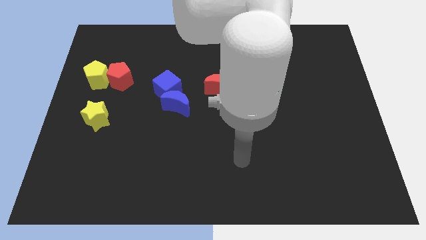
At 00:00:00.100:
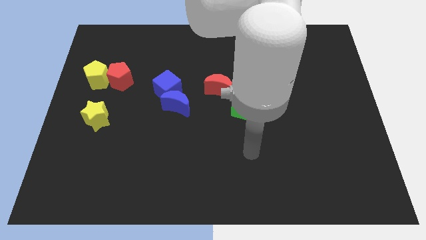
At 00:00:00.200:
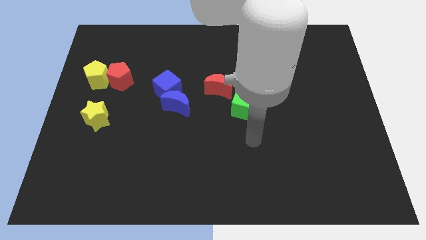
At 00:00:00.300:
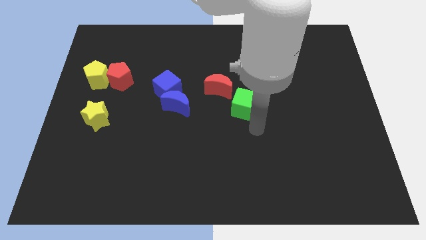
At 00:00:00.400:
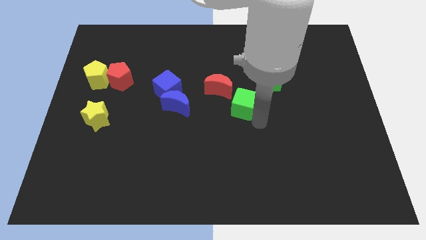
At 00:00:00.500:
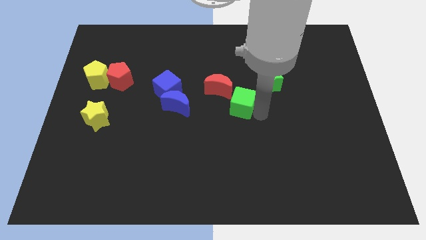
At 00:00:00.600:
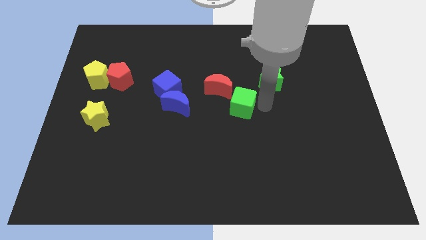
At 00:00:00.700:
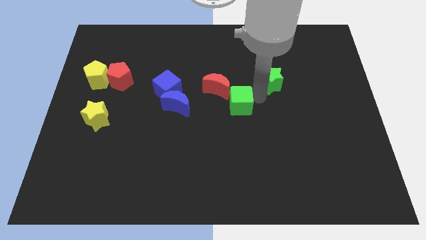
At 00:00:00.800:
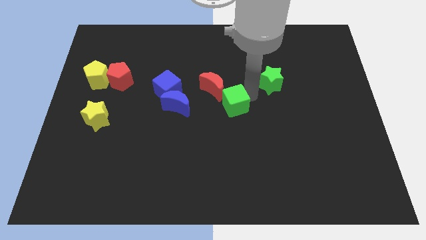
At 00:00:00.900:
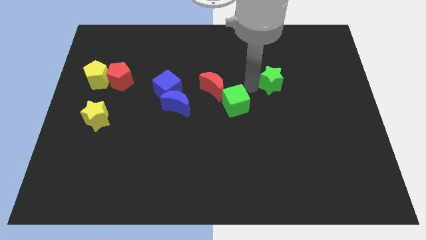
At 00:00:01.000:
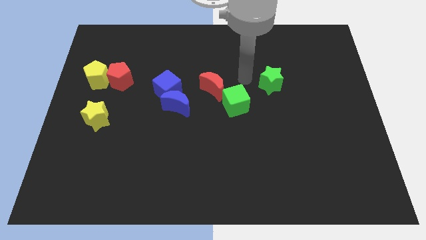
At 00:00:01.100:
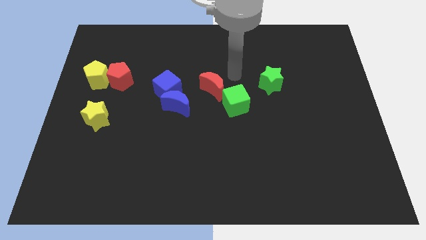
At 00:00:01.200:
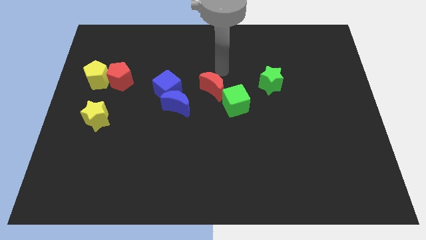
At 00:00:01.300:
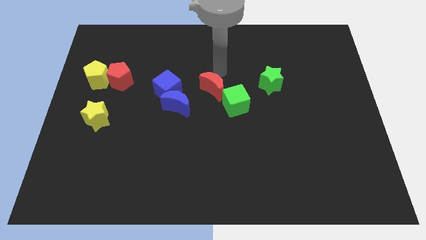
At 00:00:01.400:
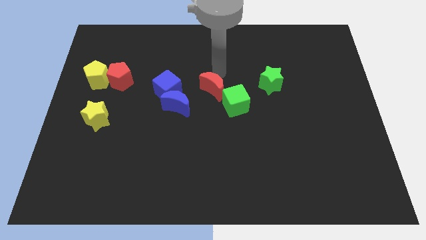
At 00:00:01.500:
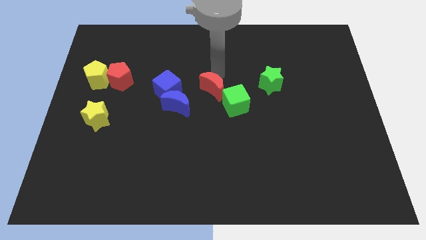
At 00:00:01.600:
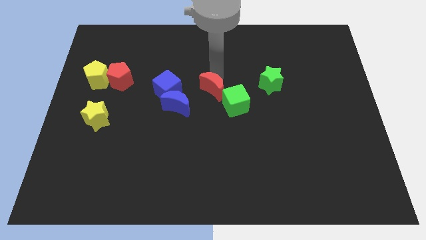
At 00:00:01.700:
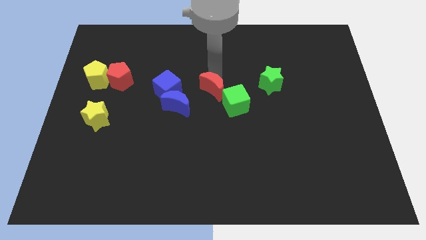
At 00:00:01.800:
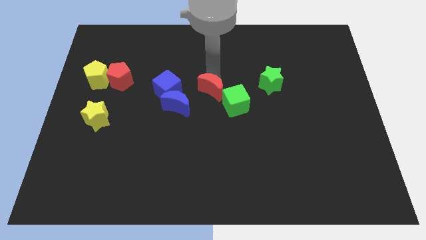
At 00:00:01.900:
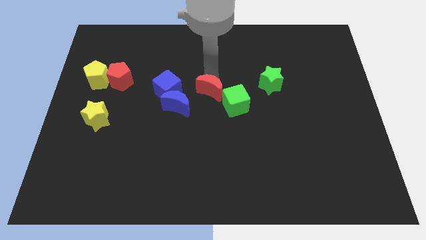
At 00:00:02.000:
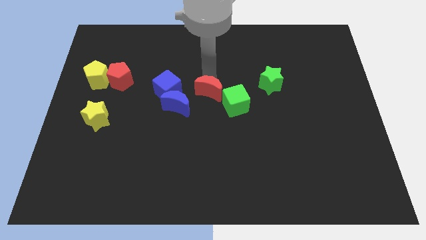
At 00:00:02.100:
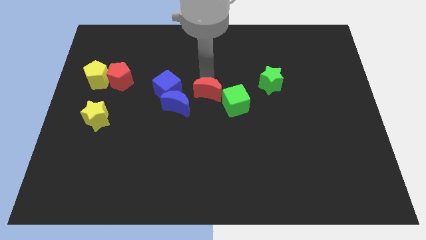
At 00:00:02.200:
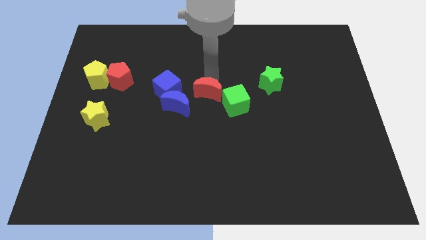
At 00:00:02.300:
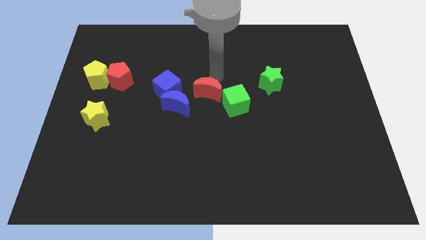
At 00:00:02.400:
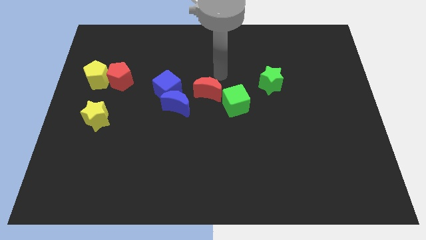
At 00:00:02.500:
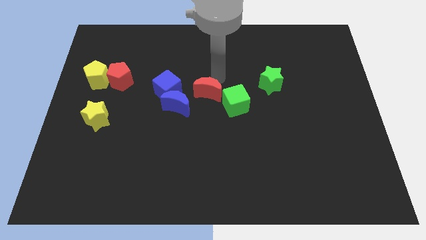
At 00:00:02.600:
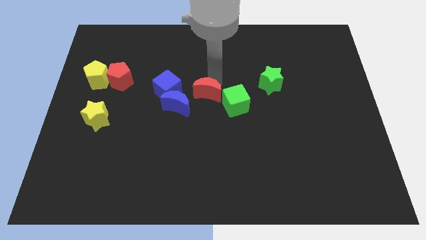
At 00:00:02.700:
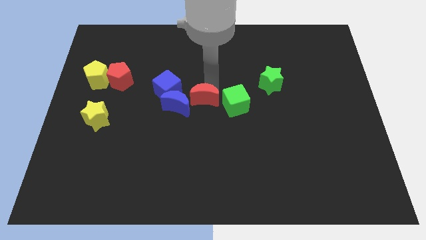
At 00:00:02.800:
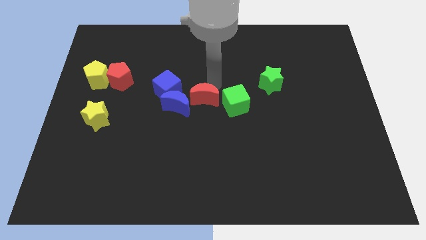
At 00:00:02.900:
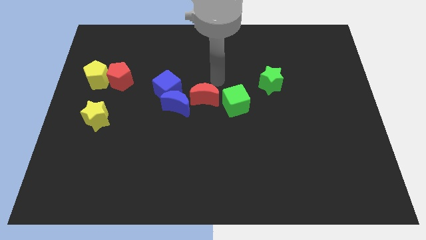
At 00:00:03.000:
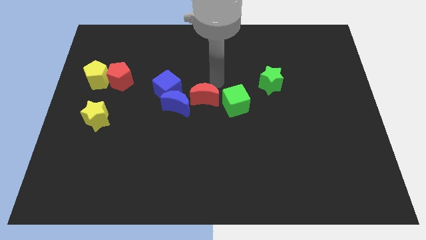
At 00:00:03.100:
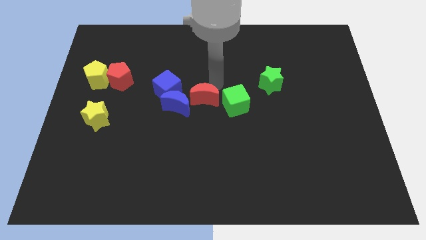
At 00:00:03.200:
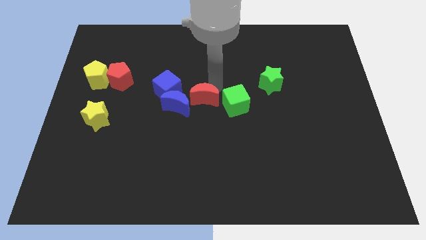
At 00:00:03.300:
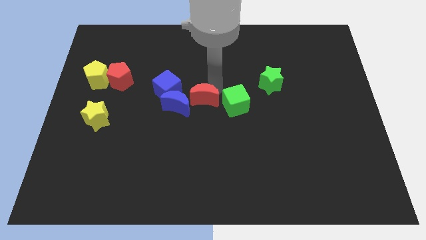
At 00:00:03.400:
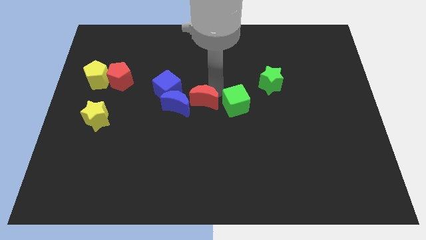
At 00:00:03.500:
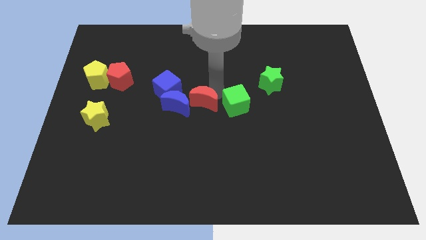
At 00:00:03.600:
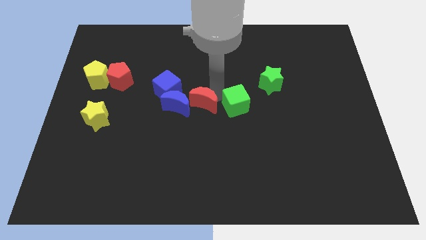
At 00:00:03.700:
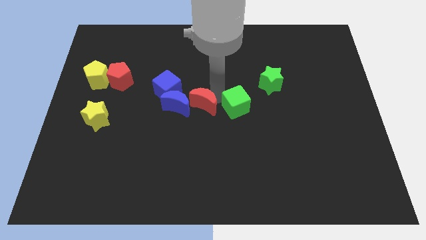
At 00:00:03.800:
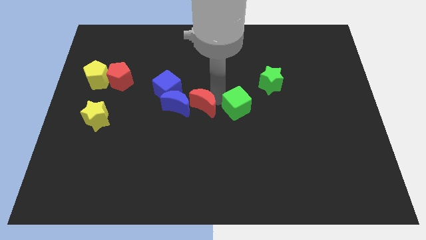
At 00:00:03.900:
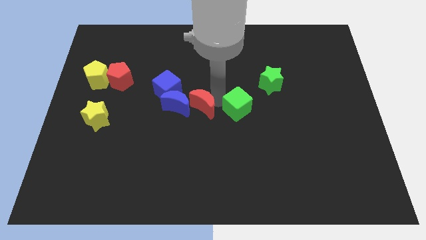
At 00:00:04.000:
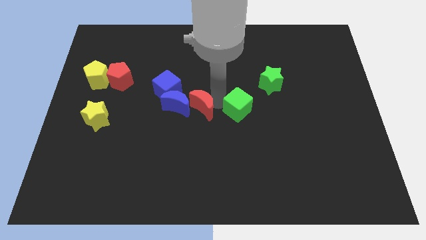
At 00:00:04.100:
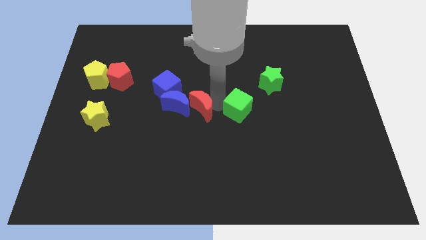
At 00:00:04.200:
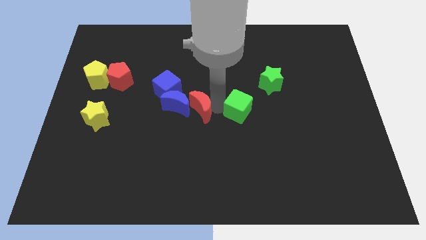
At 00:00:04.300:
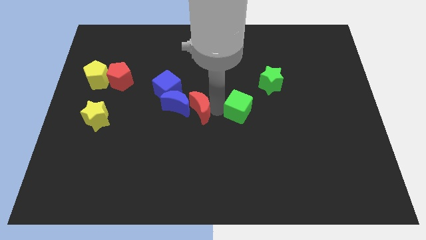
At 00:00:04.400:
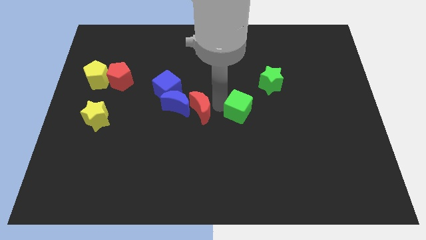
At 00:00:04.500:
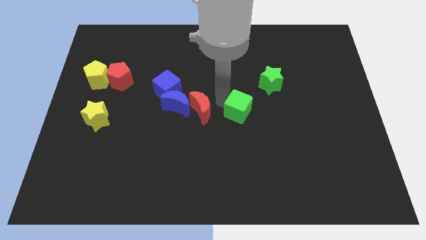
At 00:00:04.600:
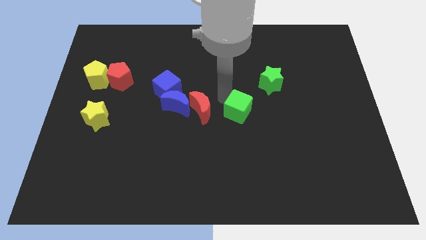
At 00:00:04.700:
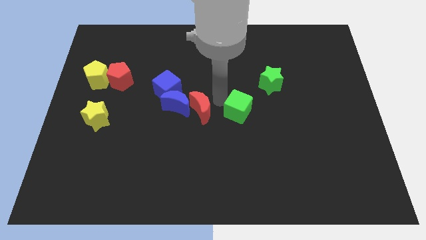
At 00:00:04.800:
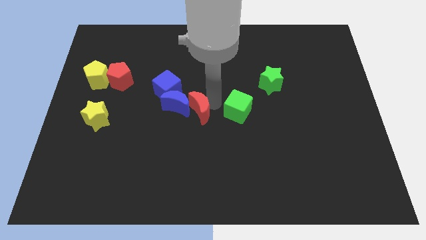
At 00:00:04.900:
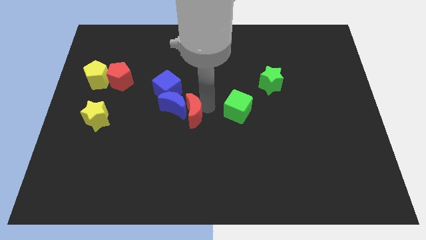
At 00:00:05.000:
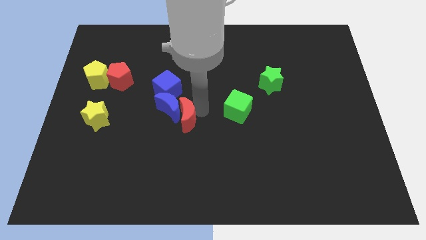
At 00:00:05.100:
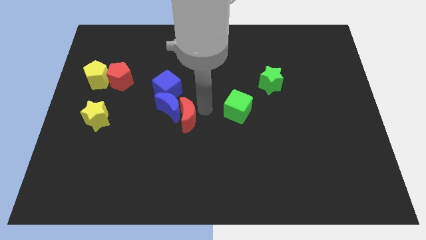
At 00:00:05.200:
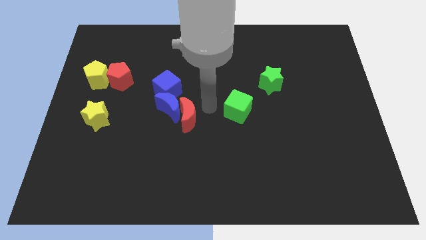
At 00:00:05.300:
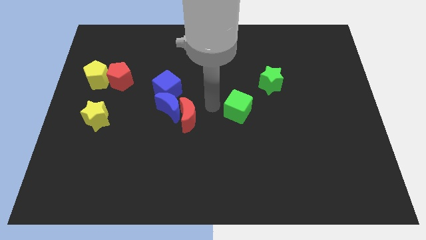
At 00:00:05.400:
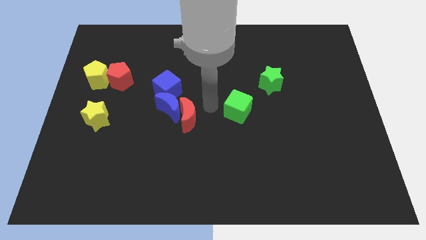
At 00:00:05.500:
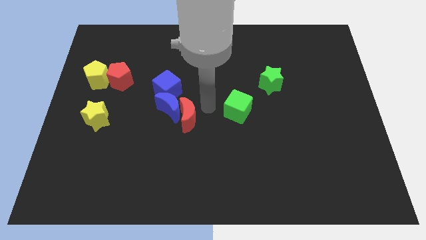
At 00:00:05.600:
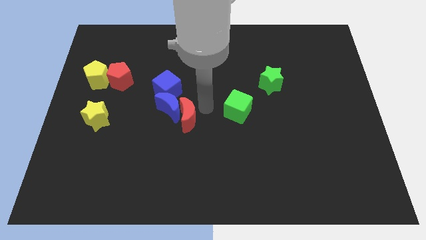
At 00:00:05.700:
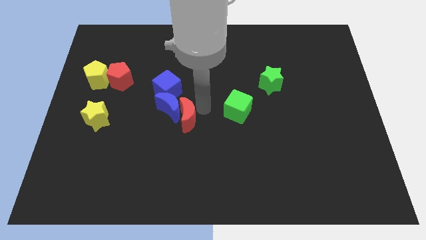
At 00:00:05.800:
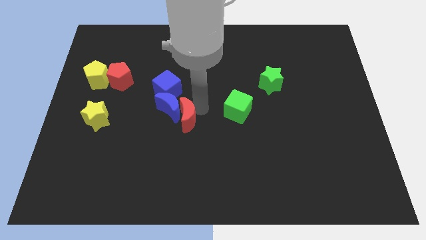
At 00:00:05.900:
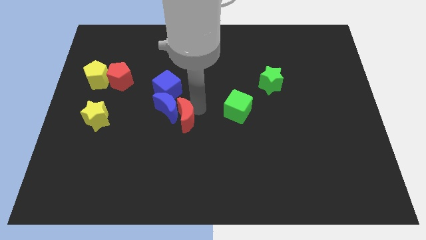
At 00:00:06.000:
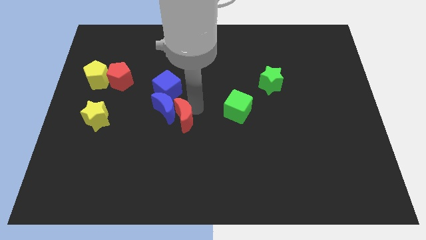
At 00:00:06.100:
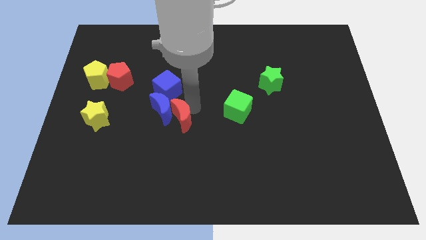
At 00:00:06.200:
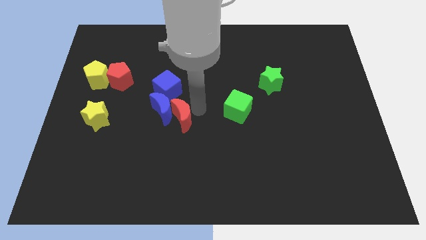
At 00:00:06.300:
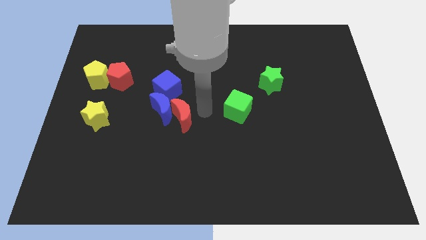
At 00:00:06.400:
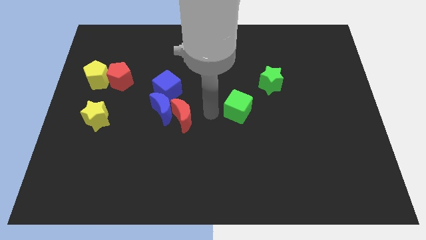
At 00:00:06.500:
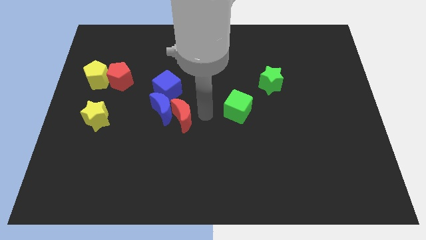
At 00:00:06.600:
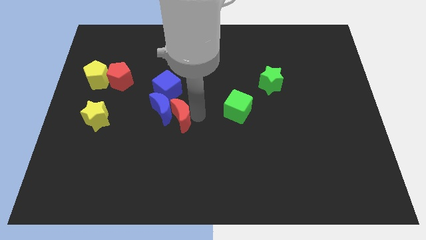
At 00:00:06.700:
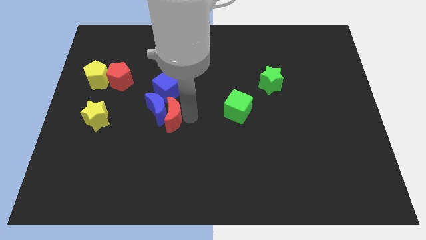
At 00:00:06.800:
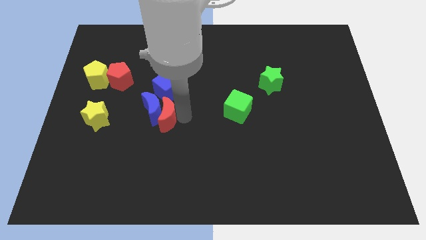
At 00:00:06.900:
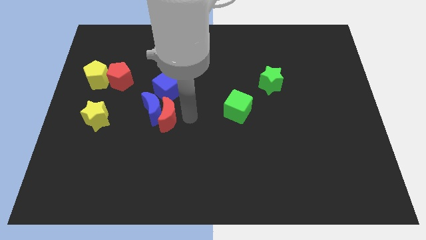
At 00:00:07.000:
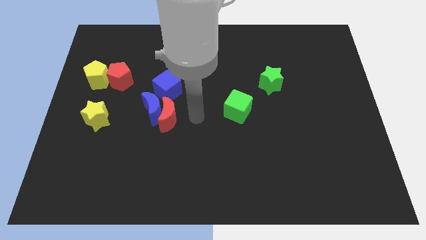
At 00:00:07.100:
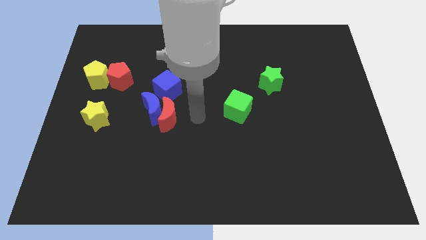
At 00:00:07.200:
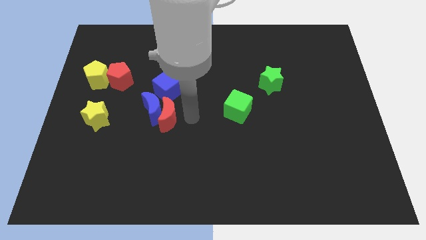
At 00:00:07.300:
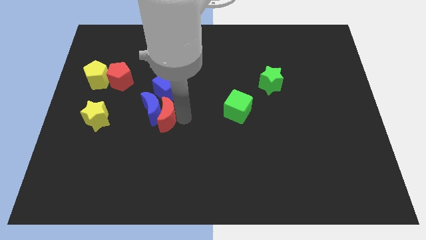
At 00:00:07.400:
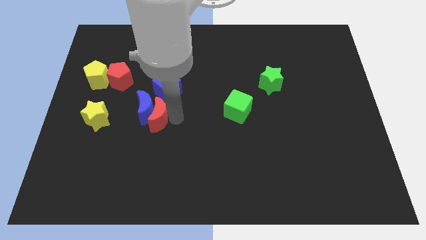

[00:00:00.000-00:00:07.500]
push the red moon right of the yellow star
